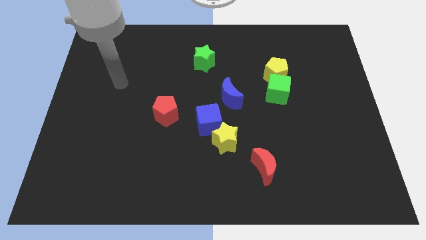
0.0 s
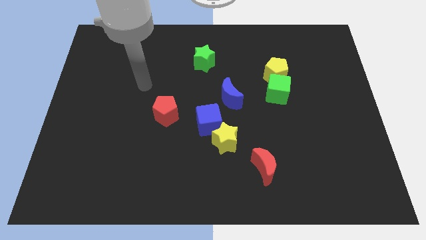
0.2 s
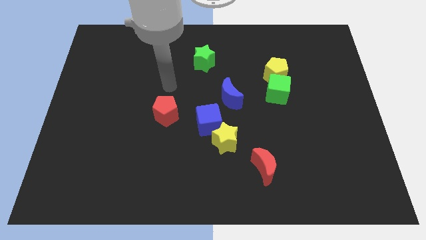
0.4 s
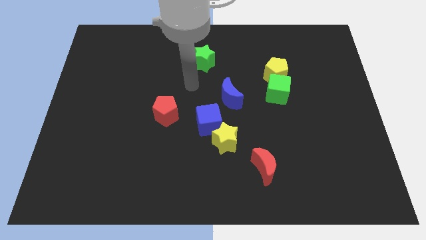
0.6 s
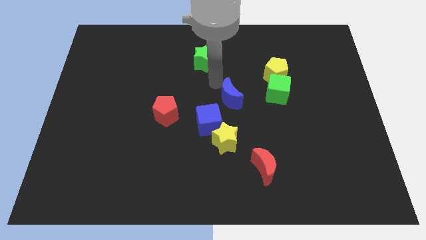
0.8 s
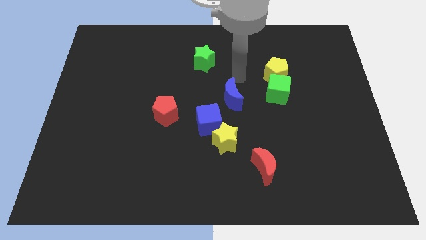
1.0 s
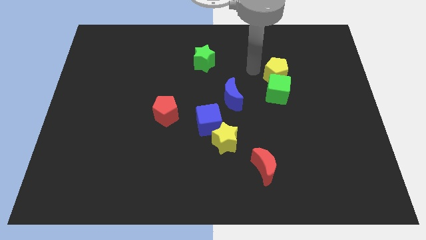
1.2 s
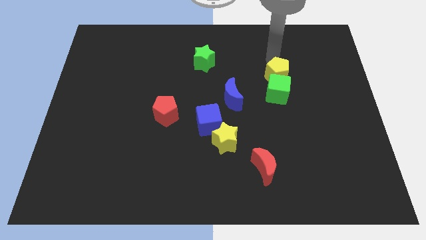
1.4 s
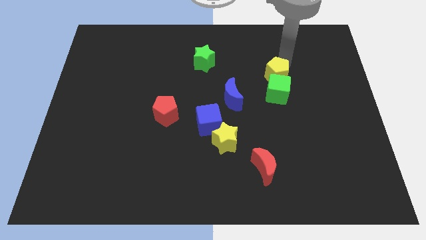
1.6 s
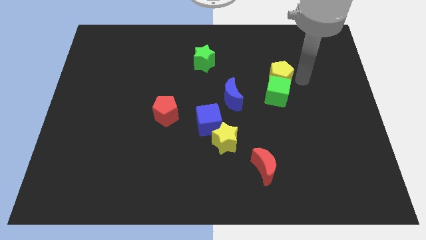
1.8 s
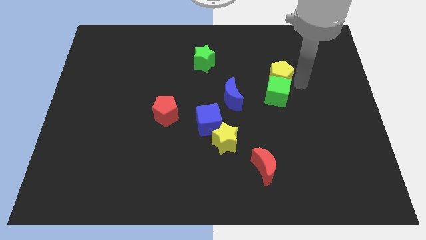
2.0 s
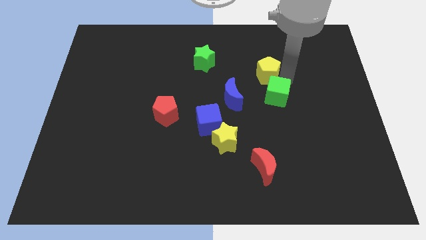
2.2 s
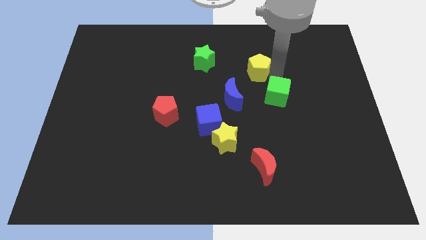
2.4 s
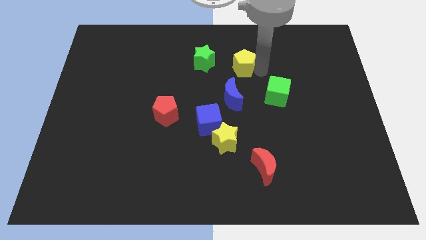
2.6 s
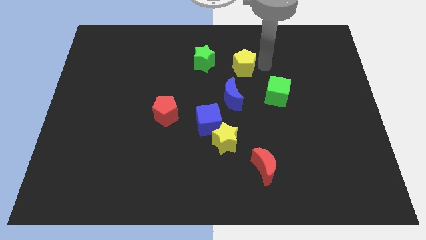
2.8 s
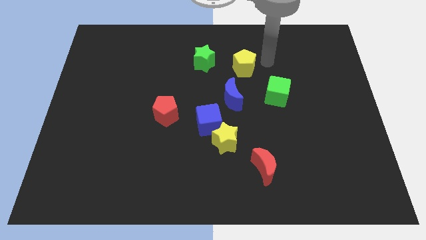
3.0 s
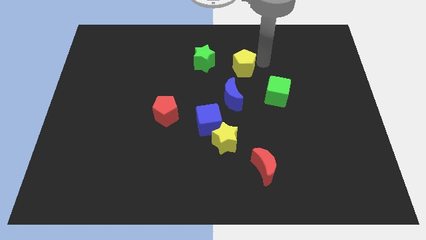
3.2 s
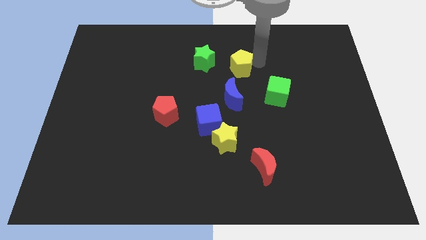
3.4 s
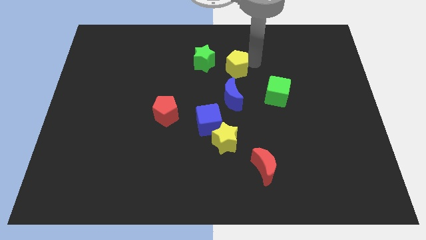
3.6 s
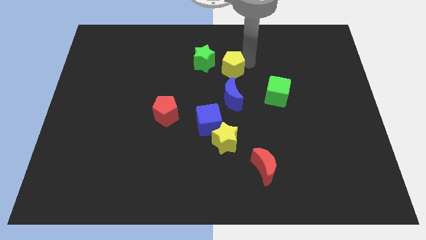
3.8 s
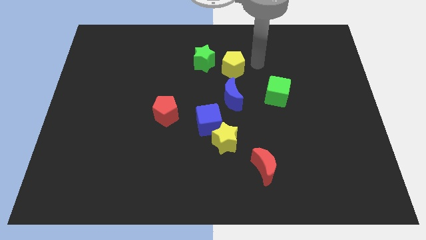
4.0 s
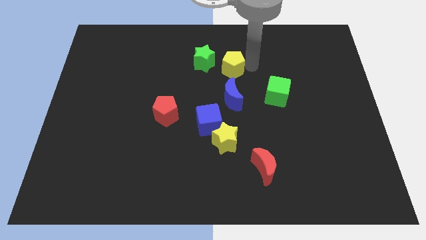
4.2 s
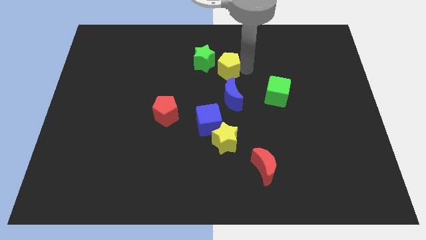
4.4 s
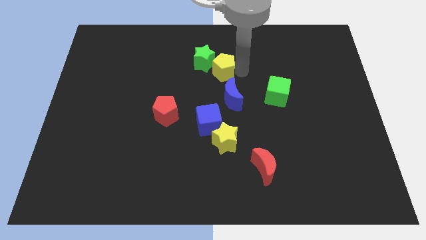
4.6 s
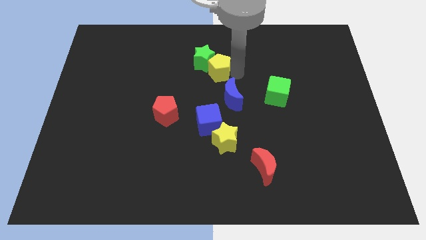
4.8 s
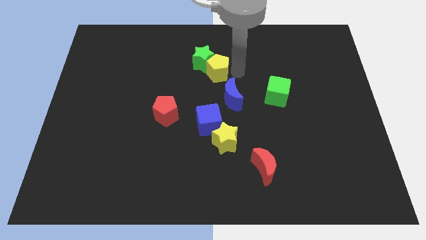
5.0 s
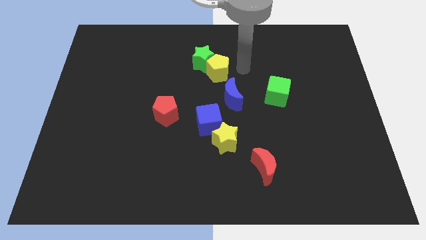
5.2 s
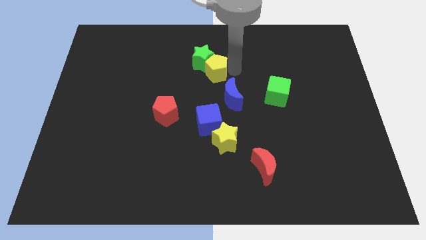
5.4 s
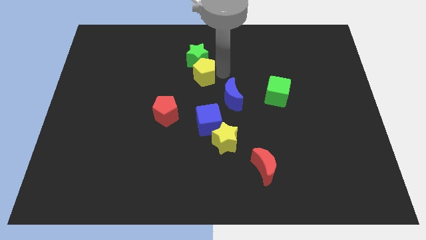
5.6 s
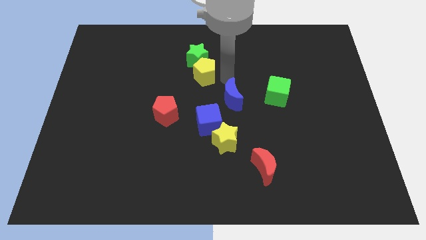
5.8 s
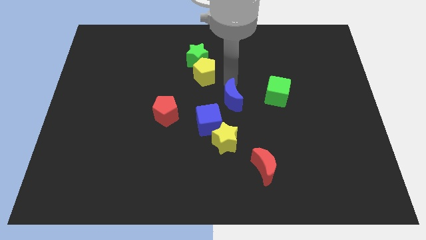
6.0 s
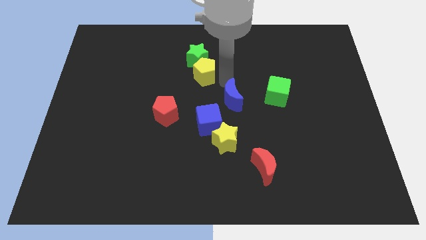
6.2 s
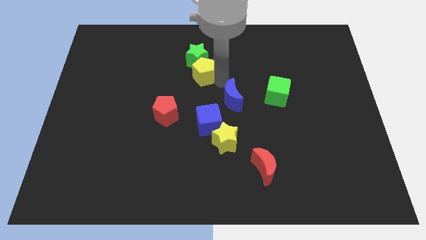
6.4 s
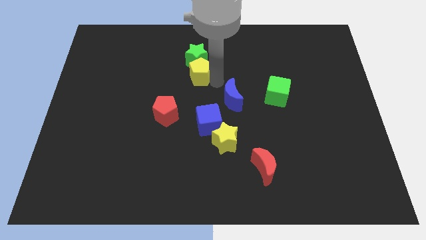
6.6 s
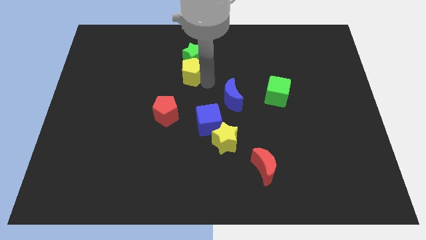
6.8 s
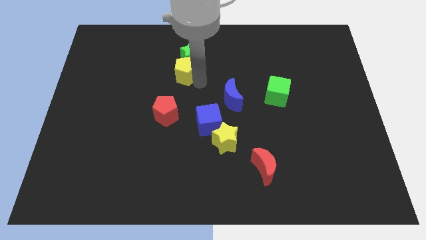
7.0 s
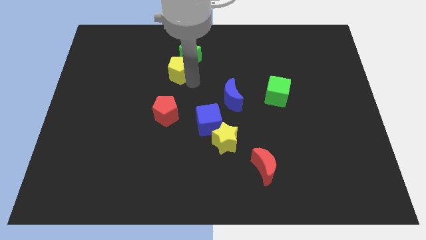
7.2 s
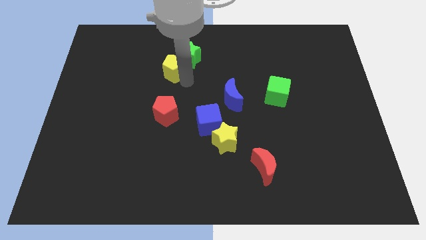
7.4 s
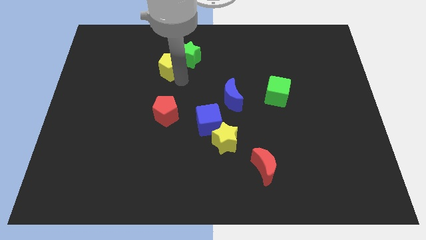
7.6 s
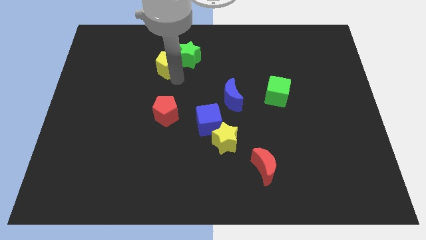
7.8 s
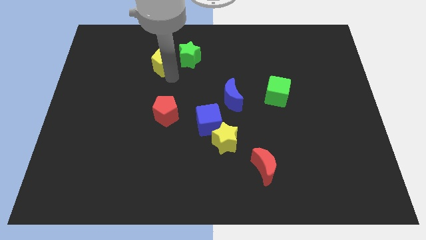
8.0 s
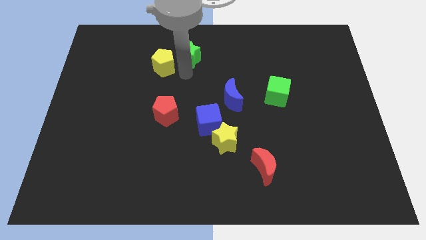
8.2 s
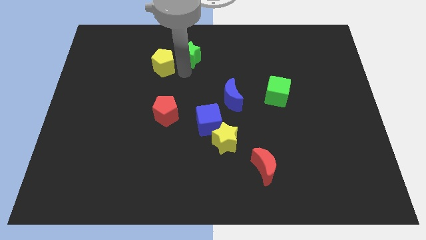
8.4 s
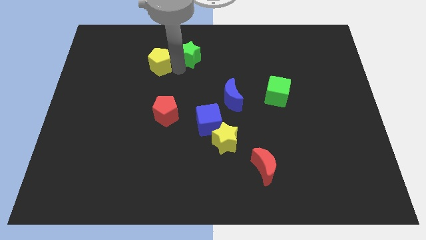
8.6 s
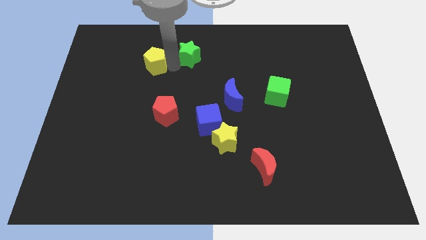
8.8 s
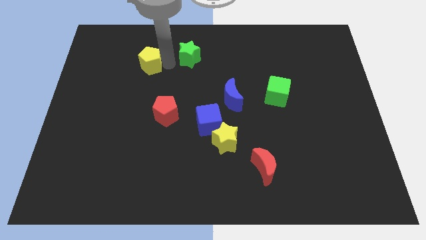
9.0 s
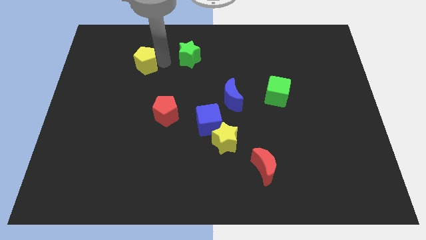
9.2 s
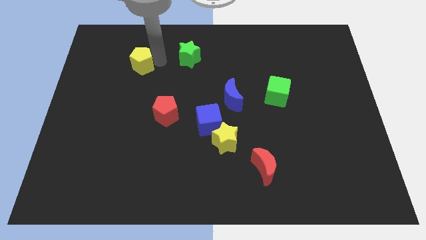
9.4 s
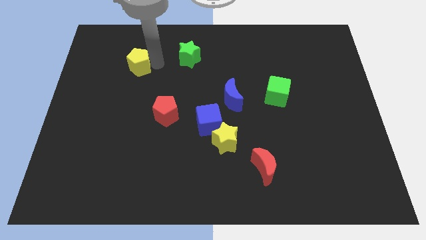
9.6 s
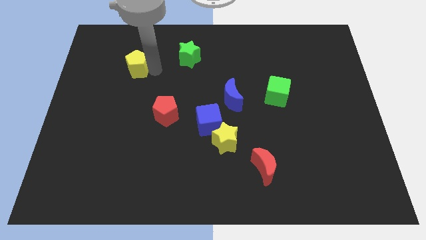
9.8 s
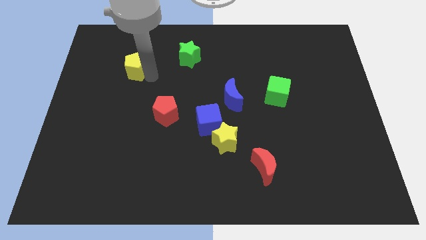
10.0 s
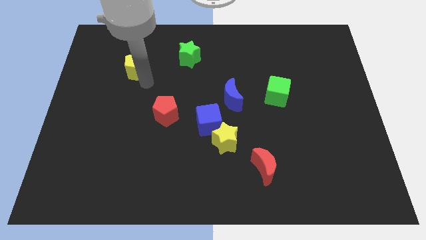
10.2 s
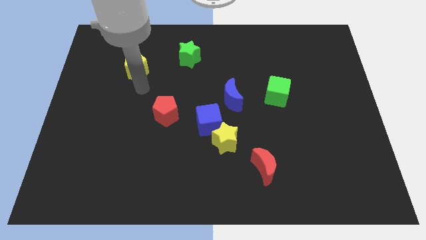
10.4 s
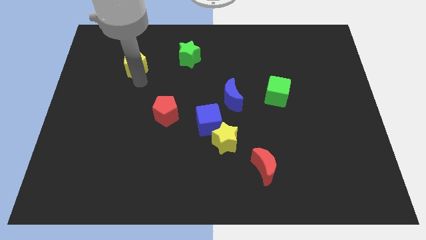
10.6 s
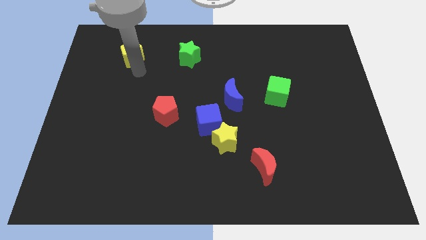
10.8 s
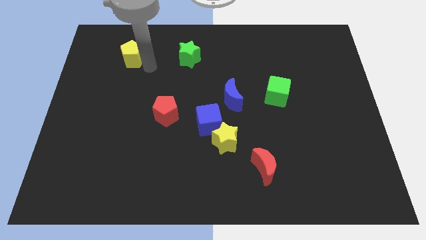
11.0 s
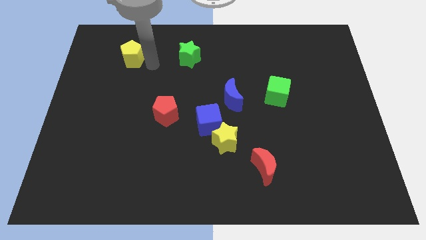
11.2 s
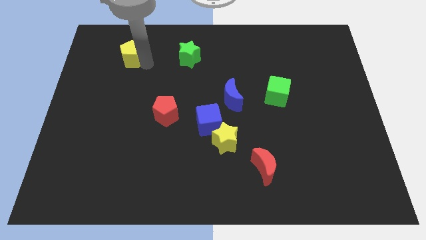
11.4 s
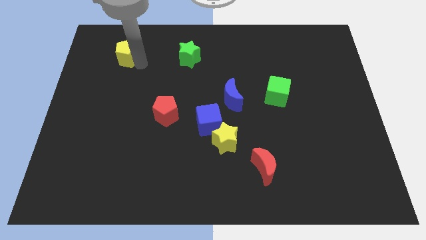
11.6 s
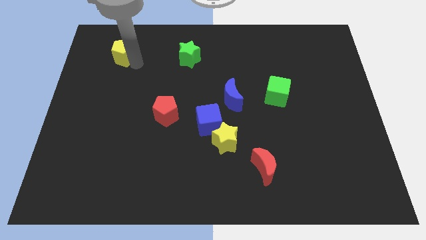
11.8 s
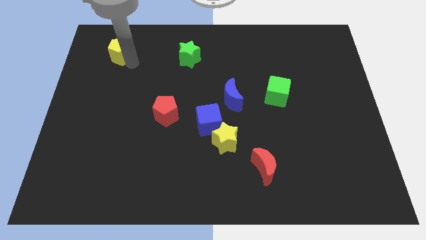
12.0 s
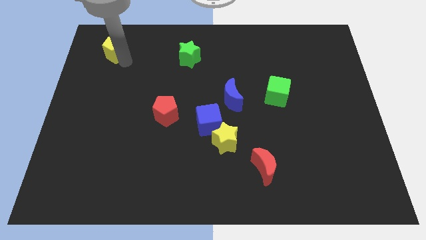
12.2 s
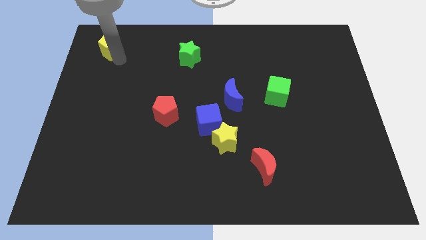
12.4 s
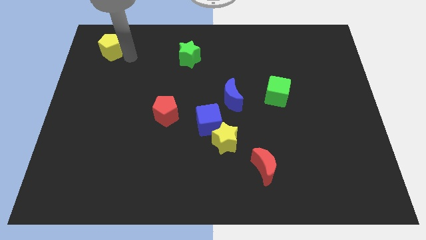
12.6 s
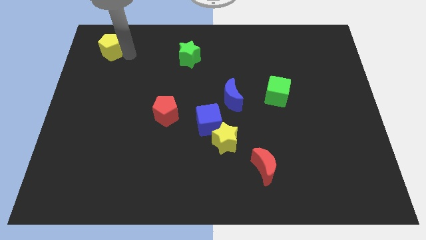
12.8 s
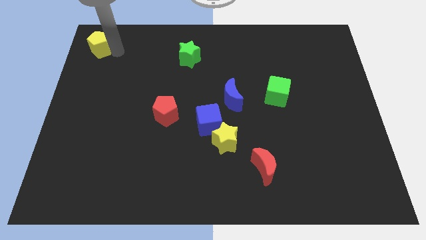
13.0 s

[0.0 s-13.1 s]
slide the yellow pentagon to the top left of the board

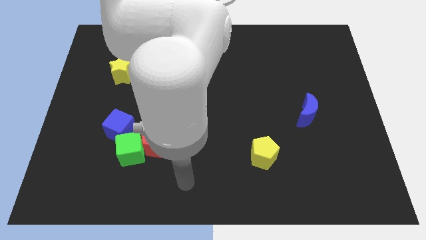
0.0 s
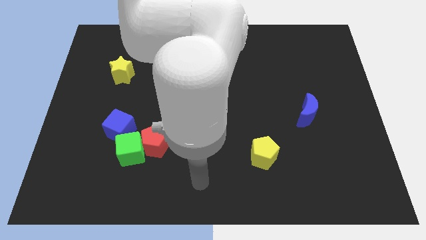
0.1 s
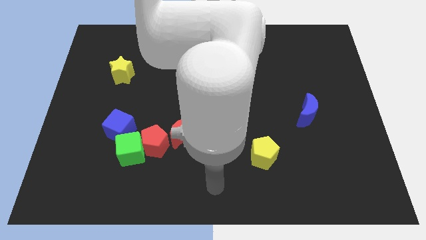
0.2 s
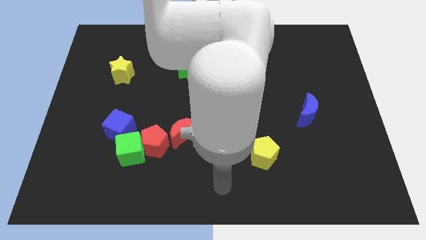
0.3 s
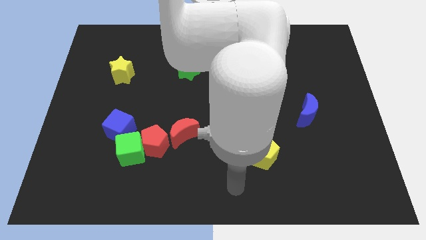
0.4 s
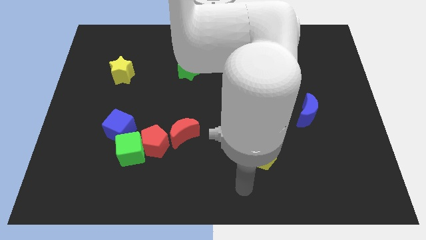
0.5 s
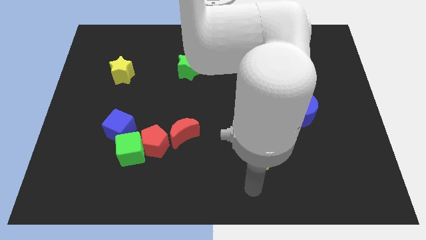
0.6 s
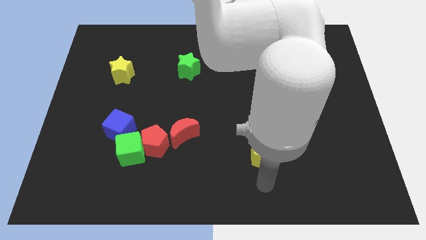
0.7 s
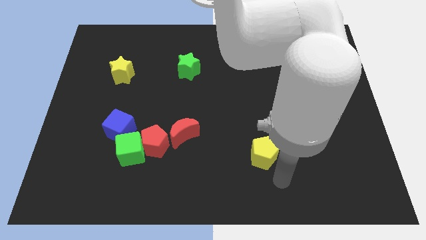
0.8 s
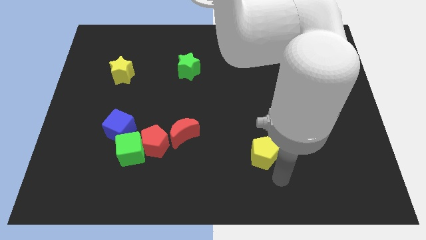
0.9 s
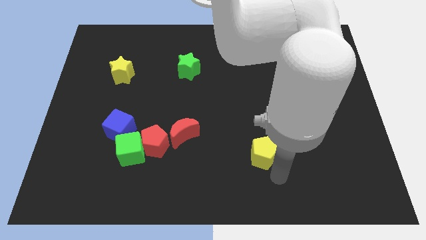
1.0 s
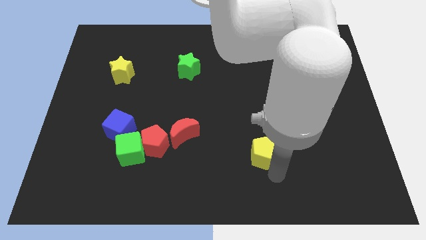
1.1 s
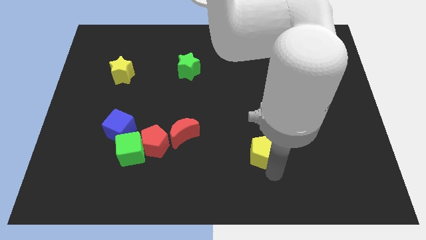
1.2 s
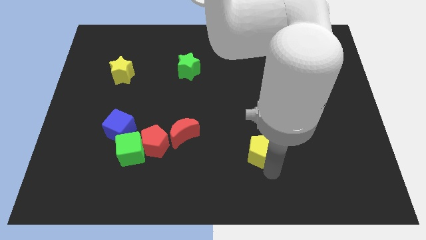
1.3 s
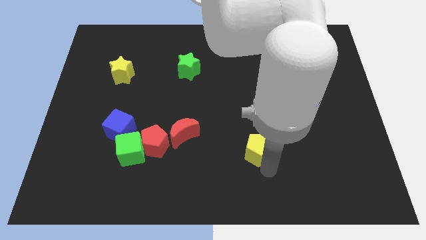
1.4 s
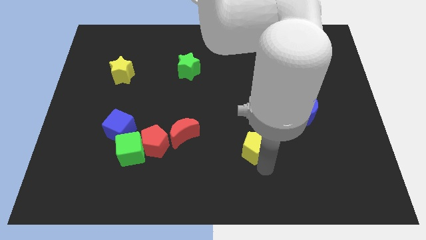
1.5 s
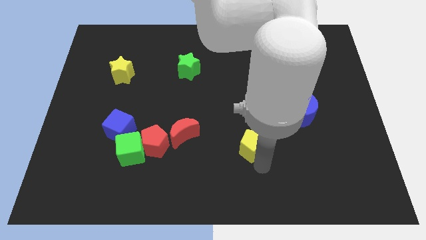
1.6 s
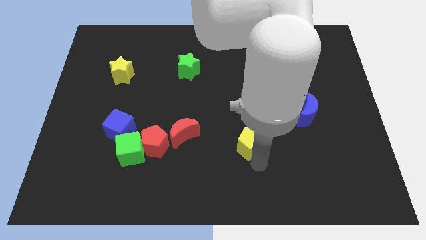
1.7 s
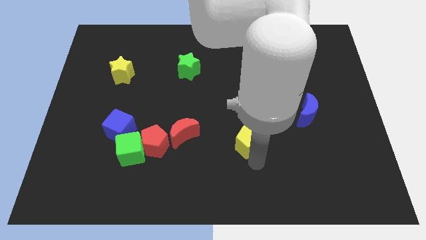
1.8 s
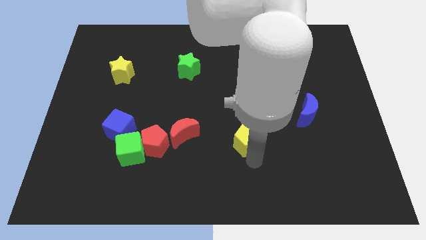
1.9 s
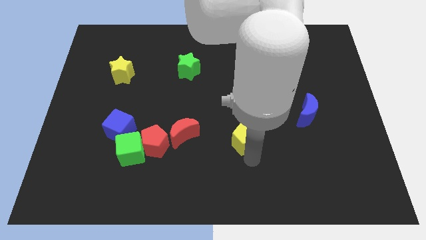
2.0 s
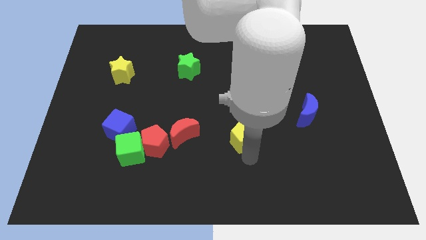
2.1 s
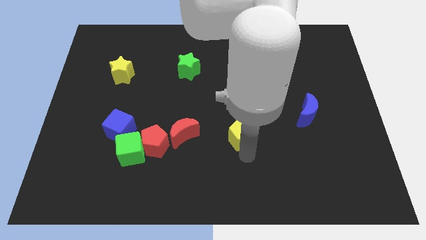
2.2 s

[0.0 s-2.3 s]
push the yellow pentagon to the center of the board
